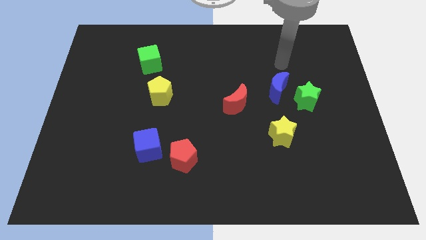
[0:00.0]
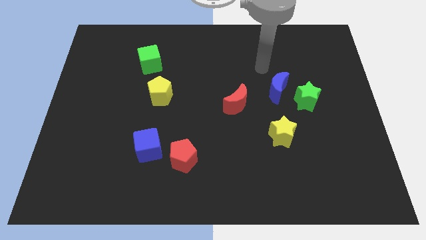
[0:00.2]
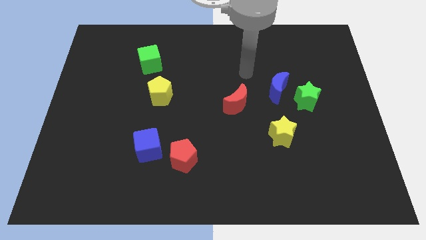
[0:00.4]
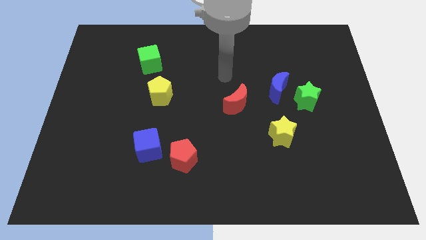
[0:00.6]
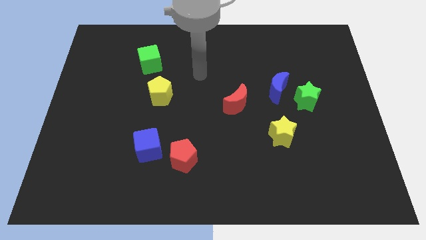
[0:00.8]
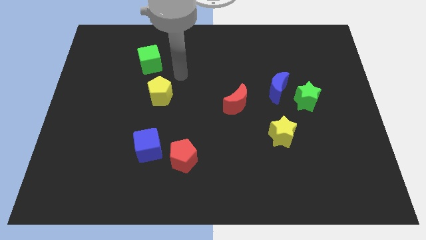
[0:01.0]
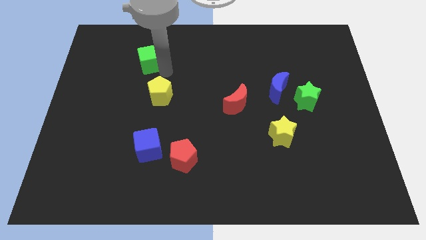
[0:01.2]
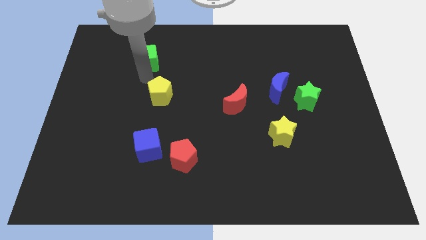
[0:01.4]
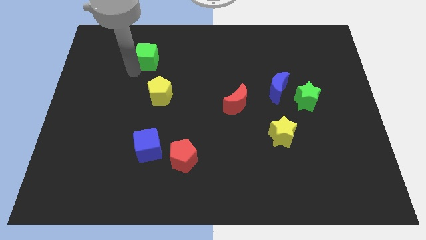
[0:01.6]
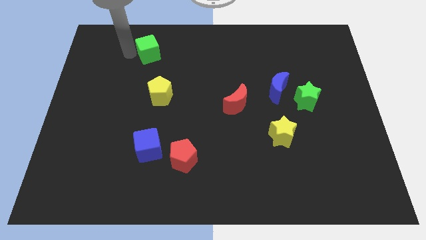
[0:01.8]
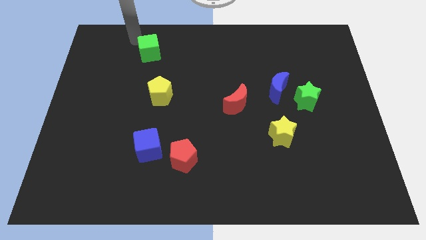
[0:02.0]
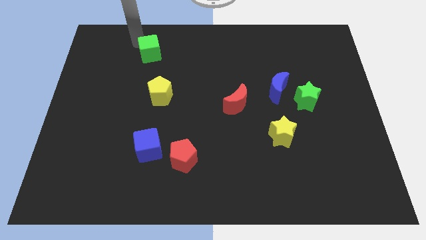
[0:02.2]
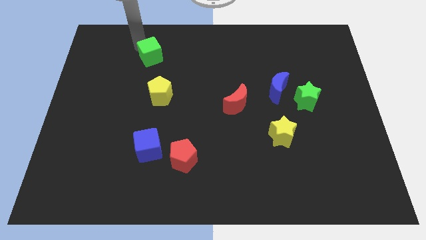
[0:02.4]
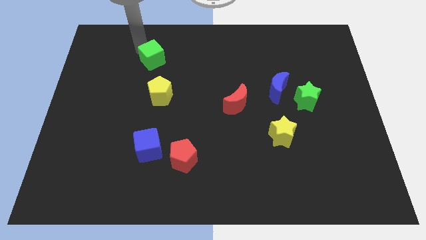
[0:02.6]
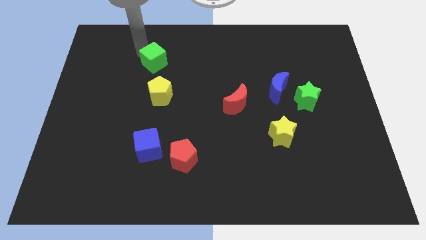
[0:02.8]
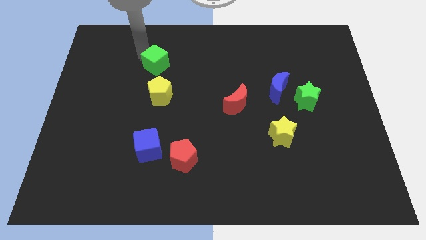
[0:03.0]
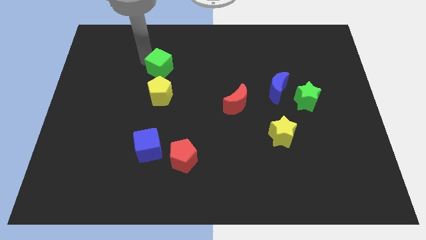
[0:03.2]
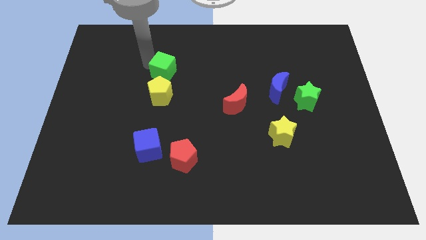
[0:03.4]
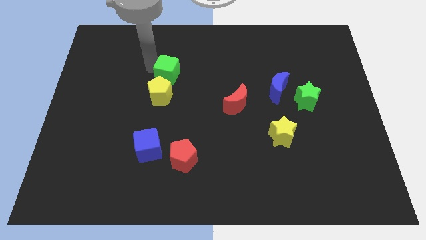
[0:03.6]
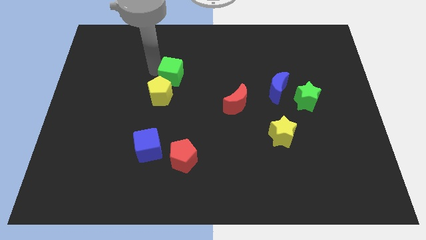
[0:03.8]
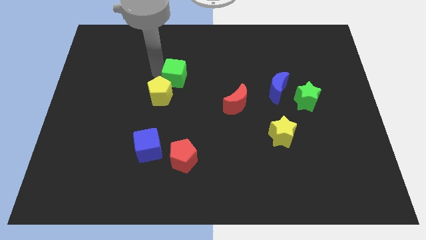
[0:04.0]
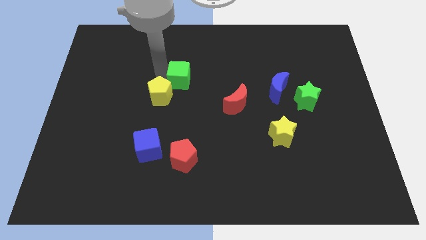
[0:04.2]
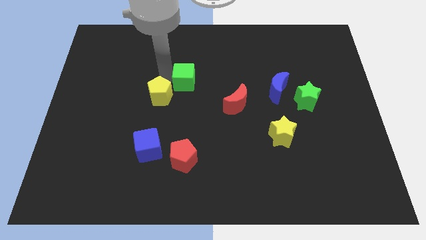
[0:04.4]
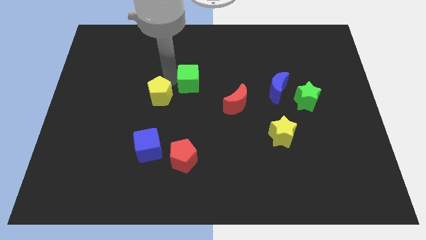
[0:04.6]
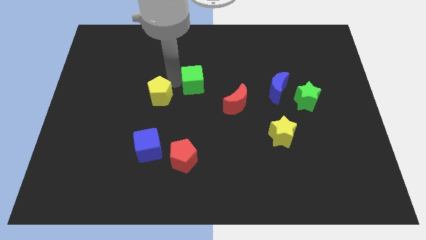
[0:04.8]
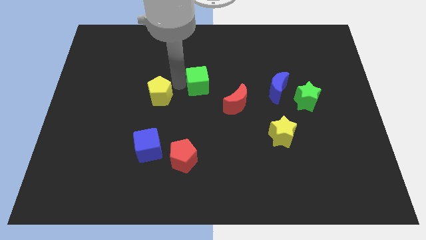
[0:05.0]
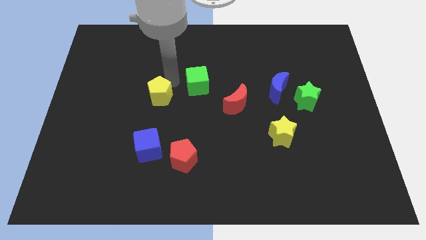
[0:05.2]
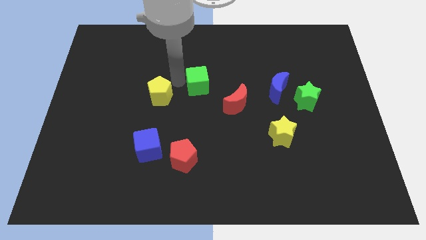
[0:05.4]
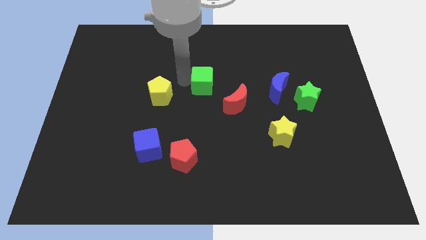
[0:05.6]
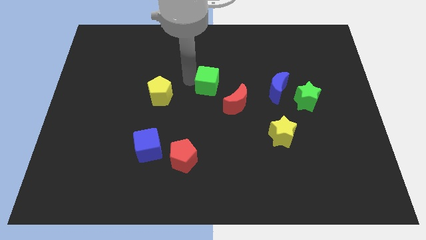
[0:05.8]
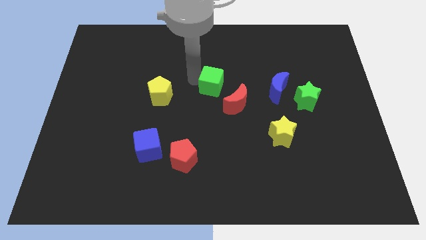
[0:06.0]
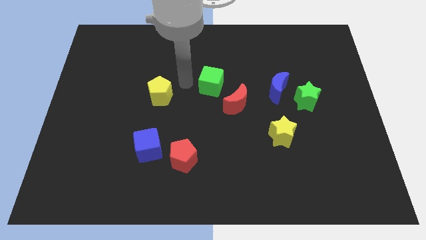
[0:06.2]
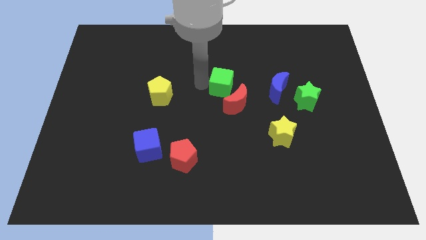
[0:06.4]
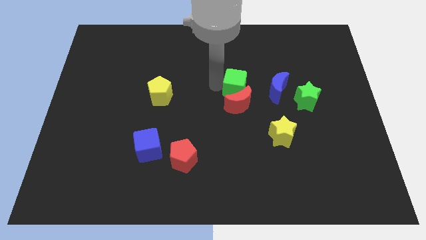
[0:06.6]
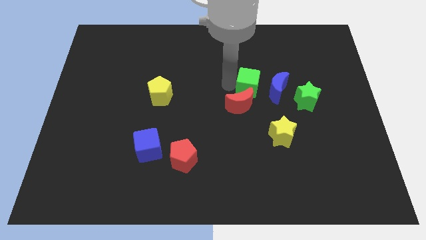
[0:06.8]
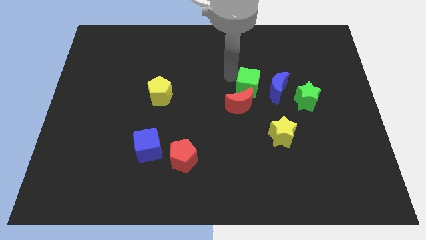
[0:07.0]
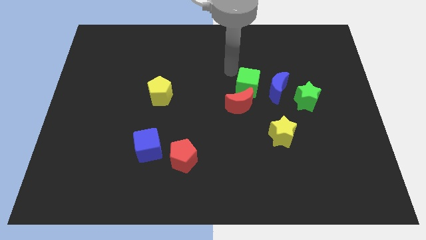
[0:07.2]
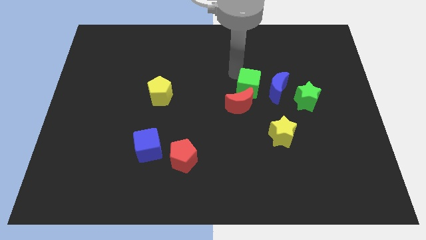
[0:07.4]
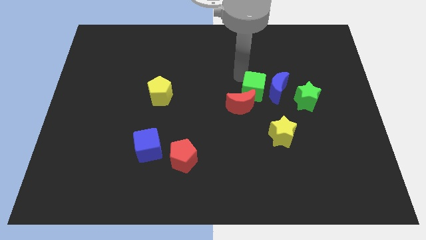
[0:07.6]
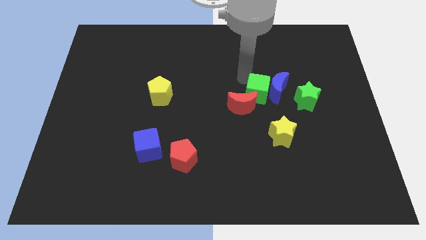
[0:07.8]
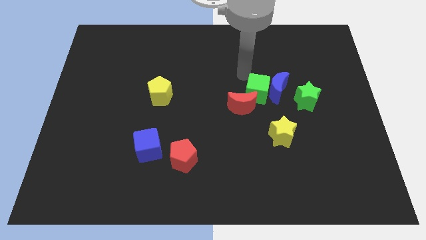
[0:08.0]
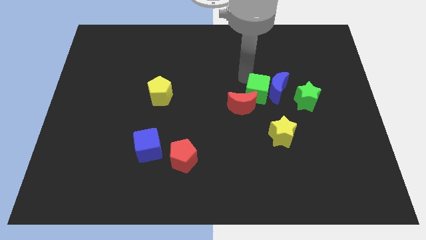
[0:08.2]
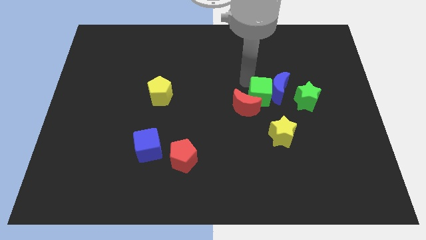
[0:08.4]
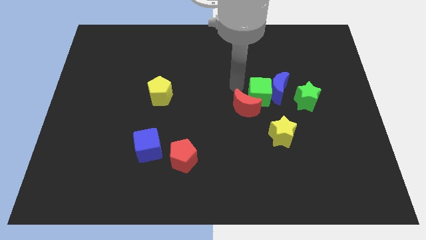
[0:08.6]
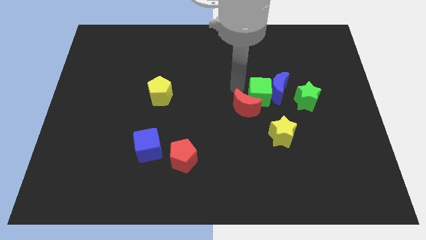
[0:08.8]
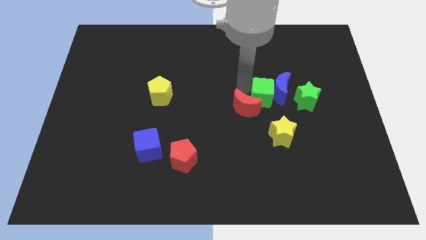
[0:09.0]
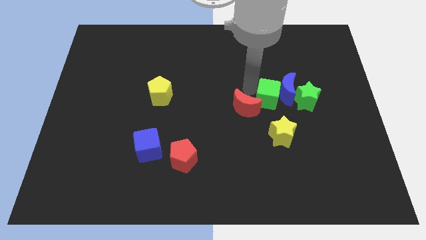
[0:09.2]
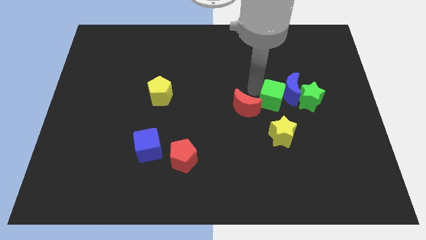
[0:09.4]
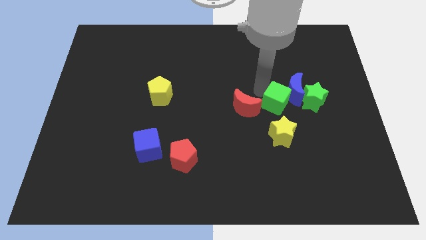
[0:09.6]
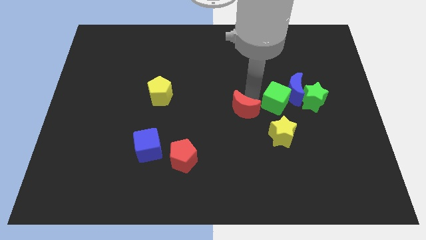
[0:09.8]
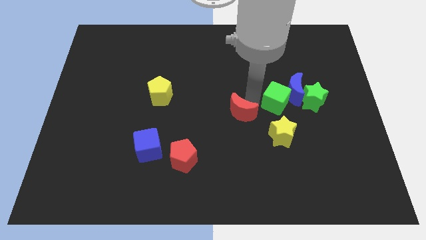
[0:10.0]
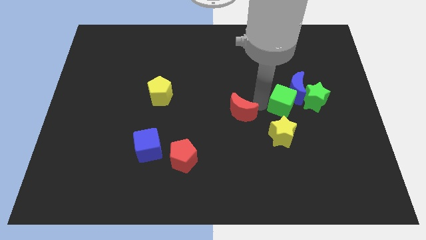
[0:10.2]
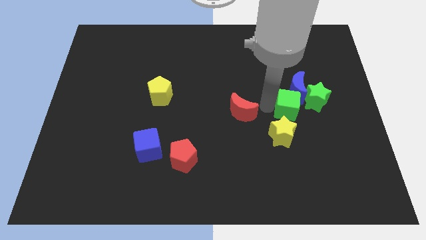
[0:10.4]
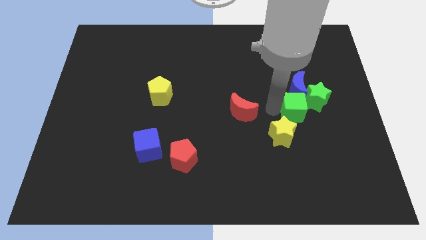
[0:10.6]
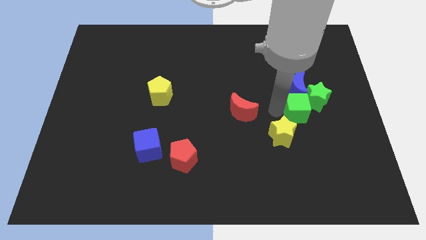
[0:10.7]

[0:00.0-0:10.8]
slide the green cube close to the green star

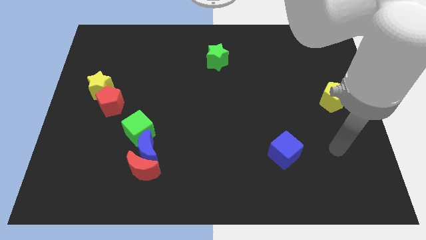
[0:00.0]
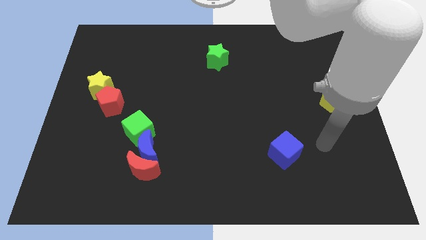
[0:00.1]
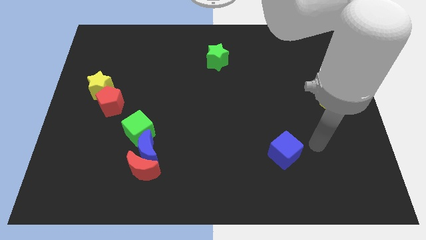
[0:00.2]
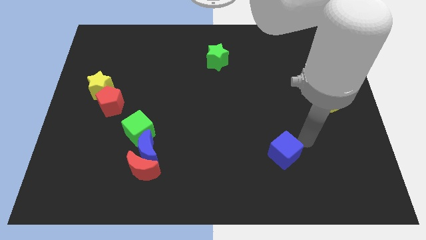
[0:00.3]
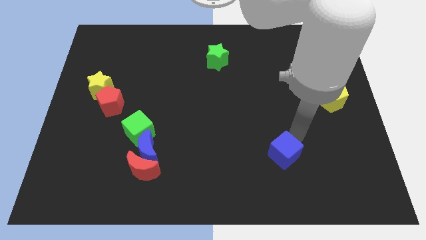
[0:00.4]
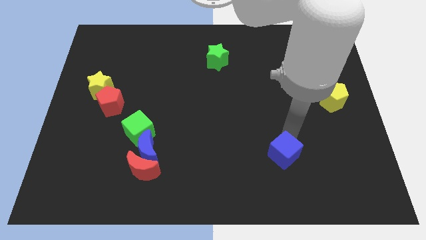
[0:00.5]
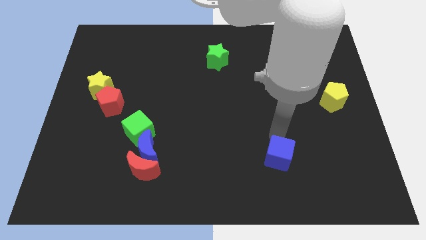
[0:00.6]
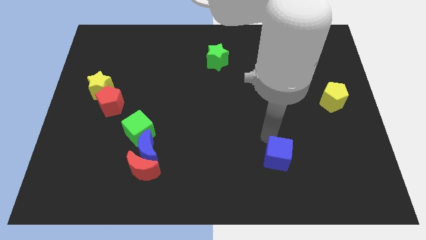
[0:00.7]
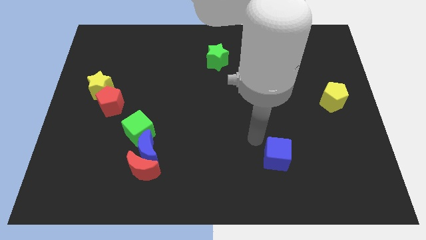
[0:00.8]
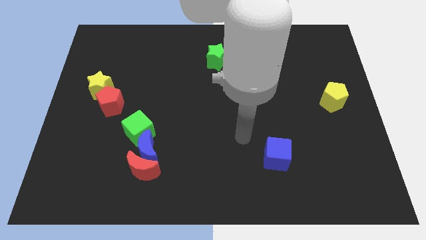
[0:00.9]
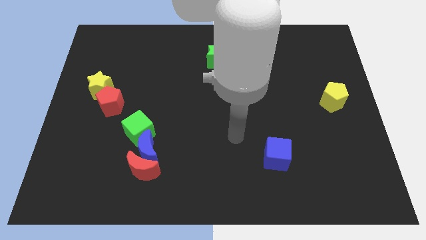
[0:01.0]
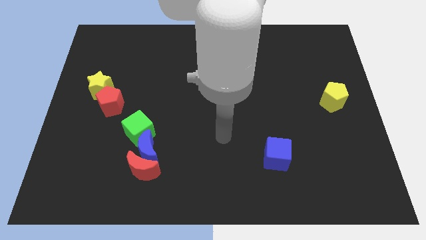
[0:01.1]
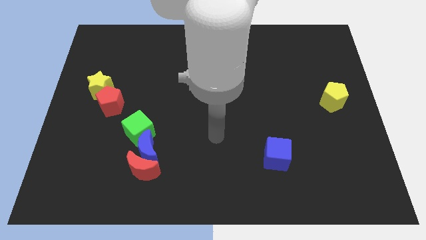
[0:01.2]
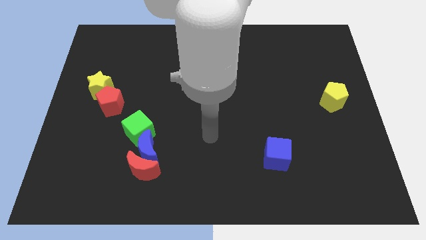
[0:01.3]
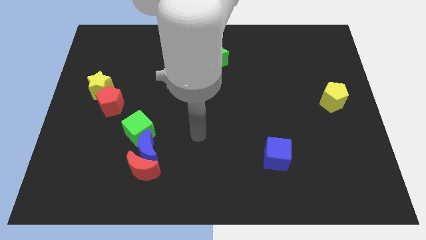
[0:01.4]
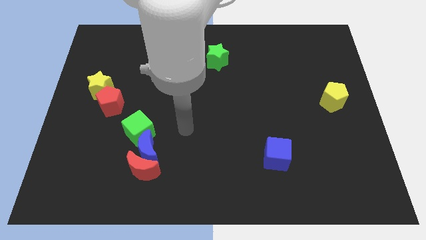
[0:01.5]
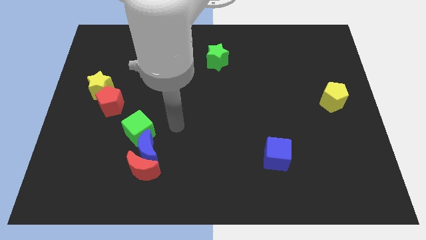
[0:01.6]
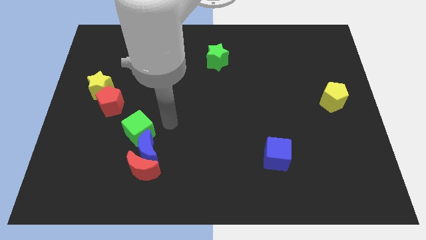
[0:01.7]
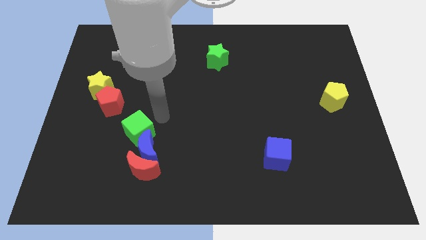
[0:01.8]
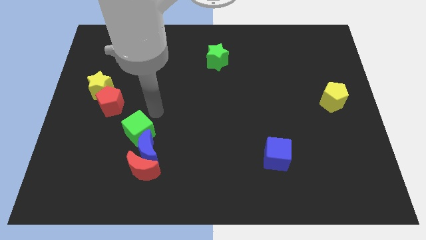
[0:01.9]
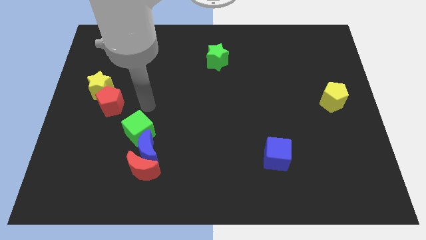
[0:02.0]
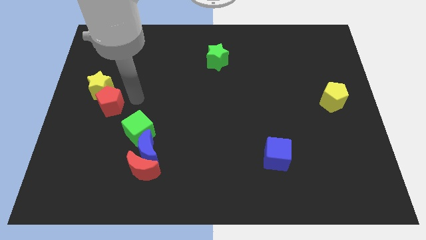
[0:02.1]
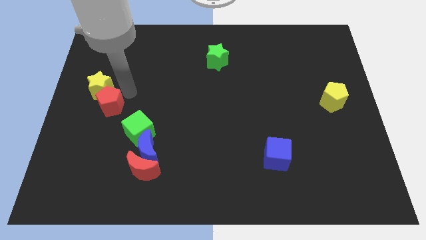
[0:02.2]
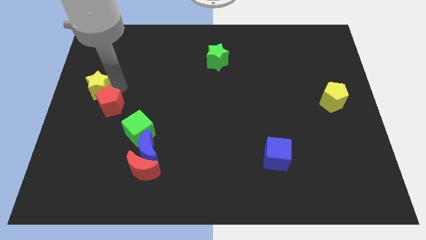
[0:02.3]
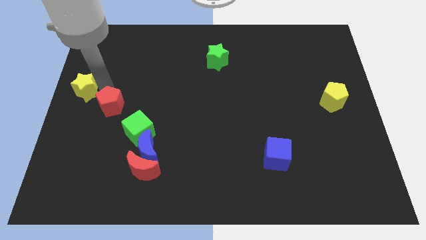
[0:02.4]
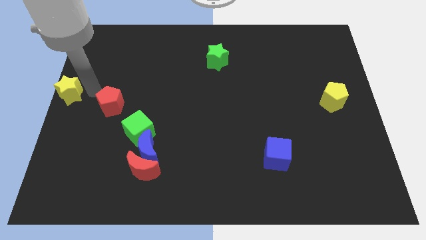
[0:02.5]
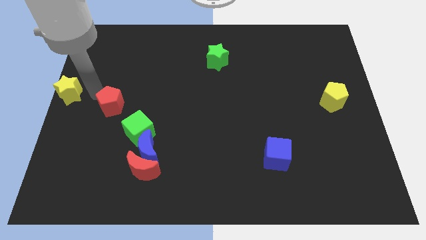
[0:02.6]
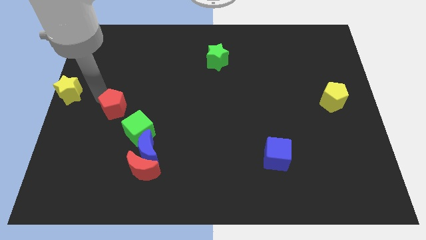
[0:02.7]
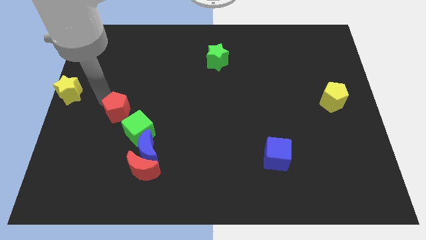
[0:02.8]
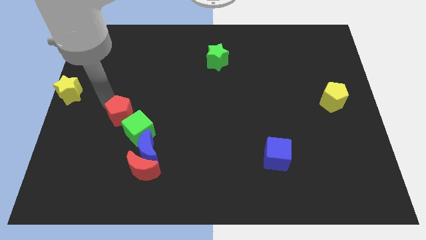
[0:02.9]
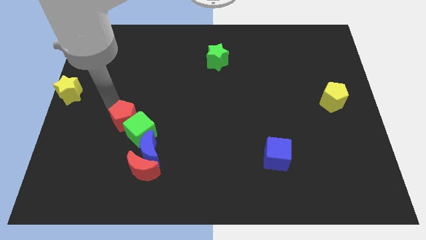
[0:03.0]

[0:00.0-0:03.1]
put the red pentagon close to the green cube
